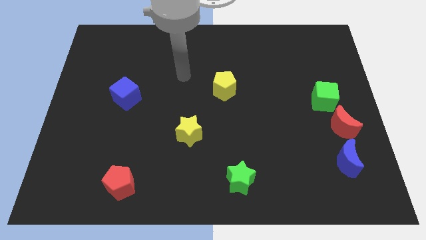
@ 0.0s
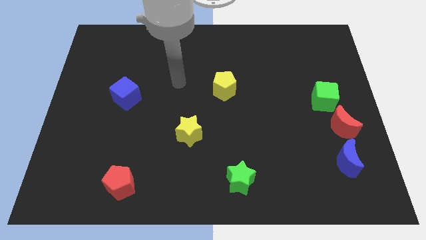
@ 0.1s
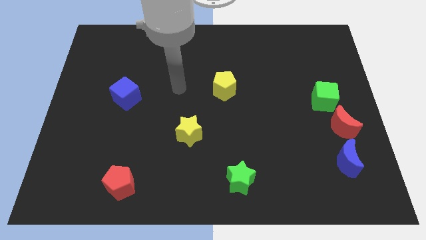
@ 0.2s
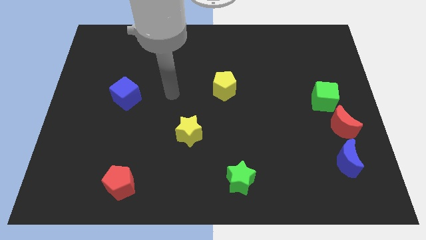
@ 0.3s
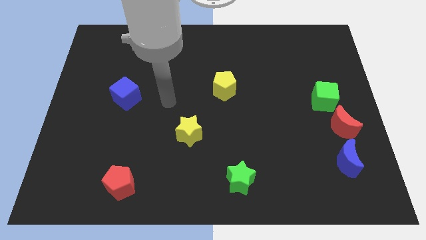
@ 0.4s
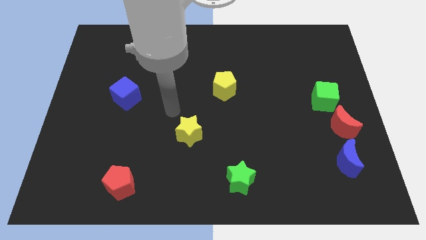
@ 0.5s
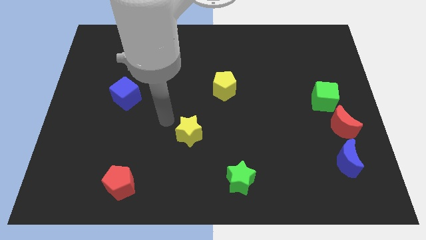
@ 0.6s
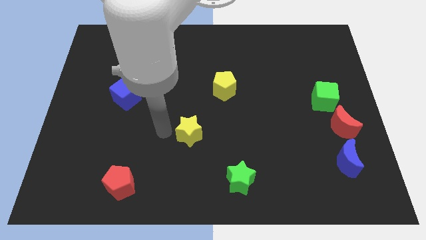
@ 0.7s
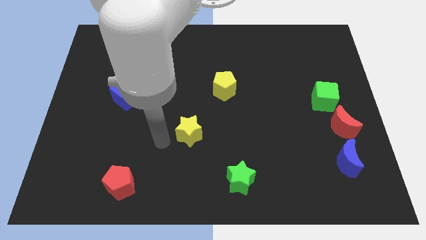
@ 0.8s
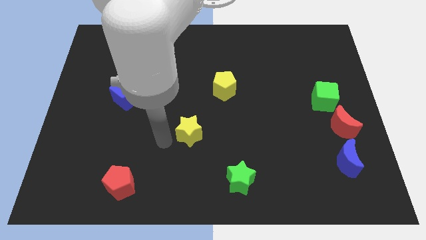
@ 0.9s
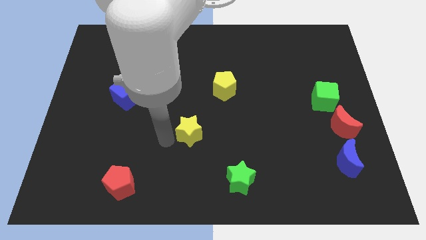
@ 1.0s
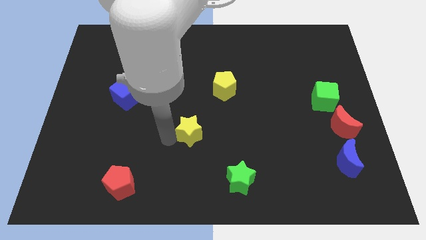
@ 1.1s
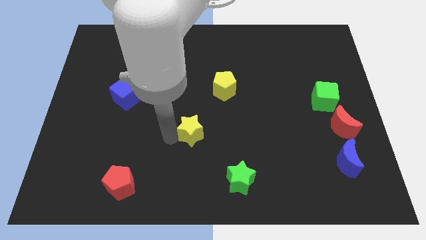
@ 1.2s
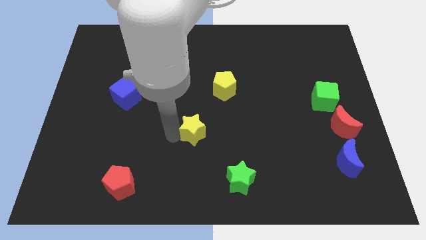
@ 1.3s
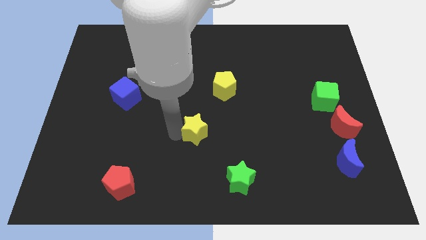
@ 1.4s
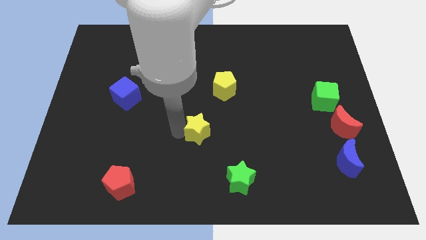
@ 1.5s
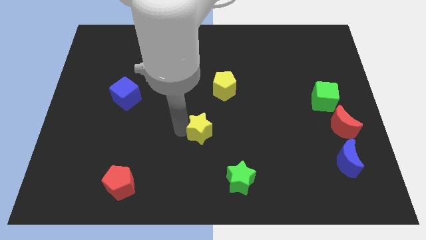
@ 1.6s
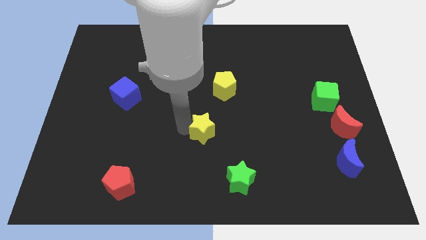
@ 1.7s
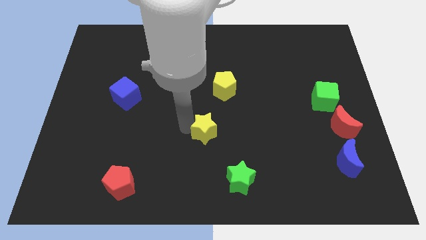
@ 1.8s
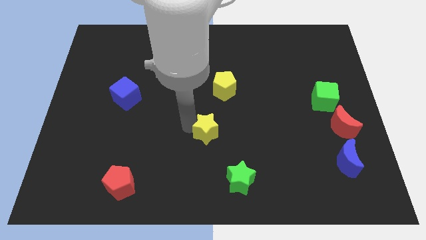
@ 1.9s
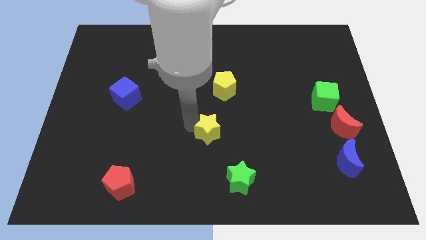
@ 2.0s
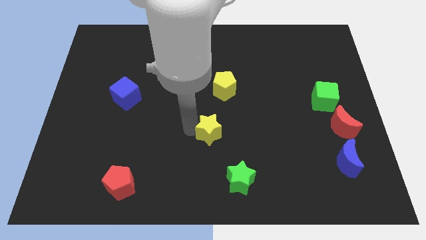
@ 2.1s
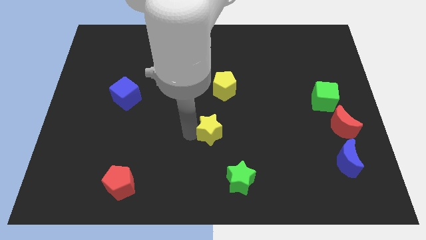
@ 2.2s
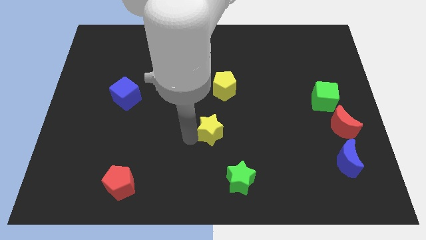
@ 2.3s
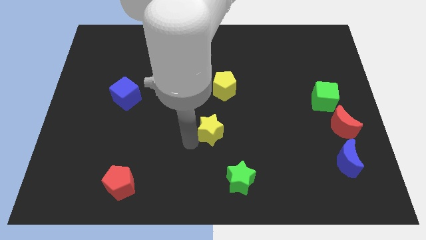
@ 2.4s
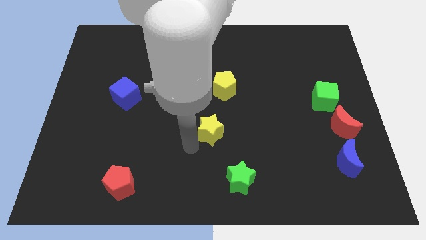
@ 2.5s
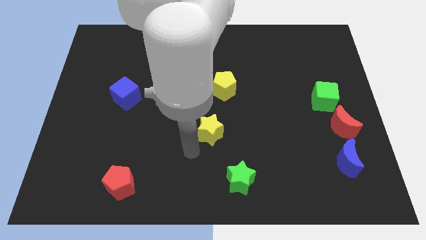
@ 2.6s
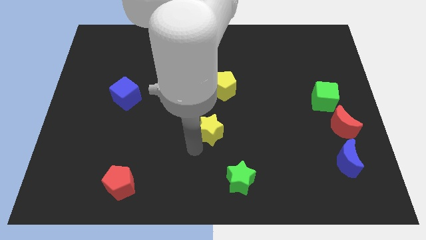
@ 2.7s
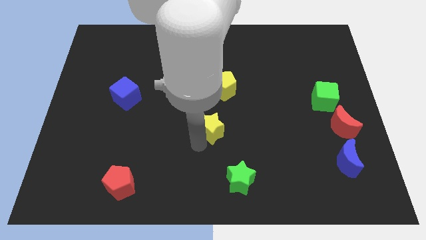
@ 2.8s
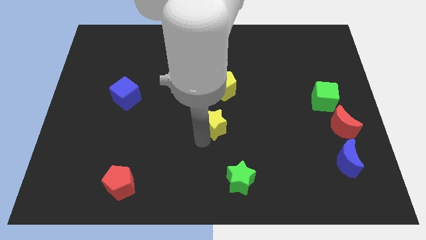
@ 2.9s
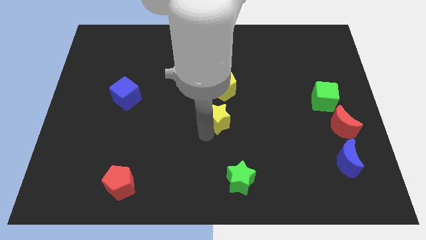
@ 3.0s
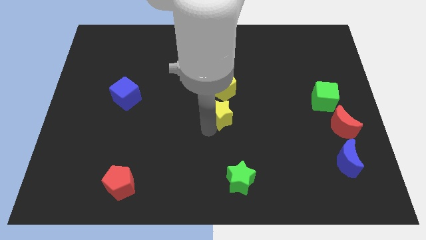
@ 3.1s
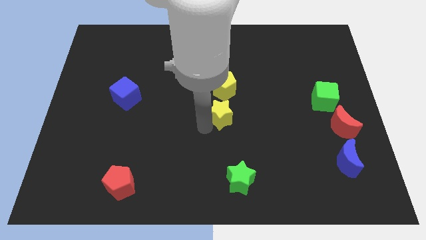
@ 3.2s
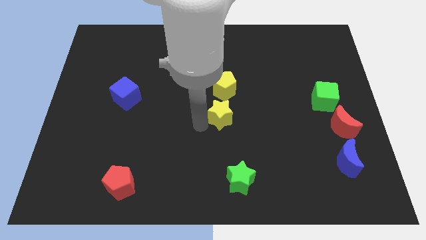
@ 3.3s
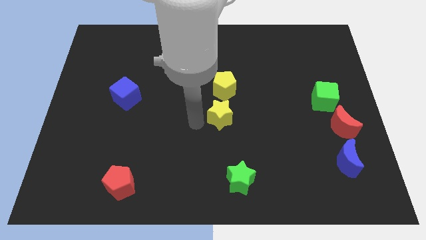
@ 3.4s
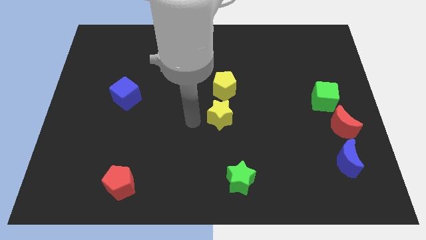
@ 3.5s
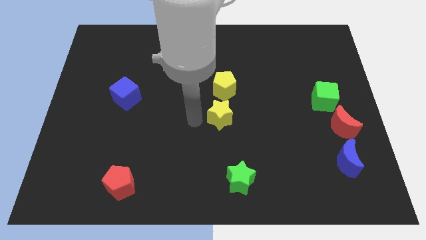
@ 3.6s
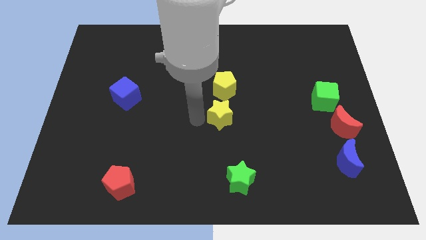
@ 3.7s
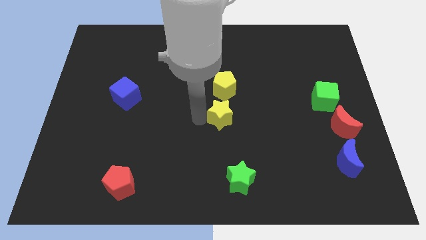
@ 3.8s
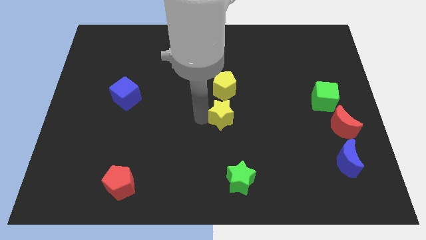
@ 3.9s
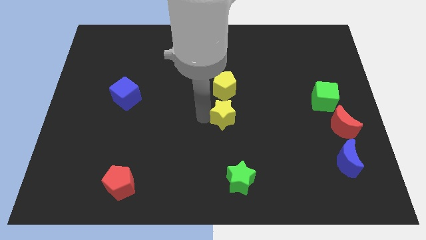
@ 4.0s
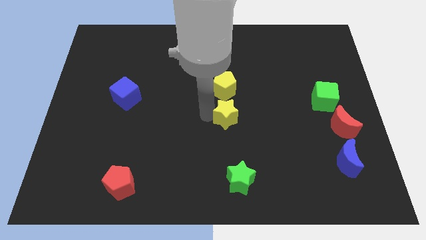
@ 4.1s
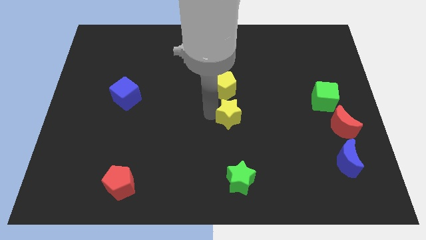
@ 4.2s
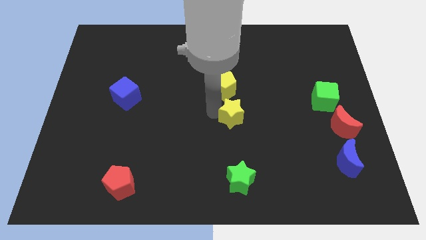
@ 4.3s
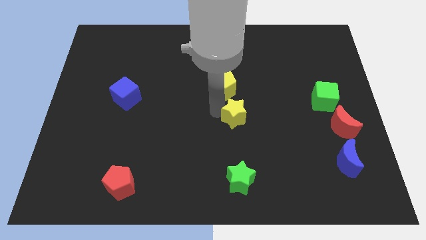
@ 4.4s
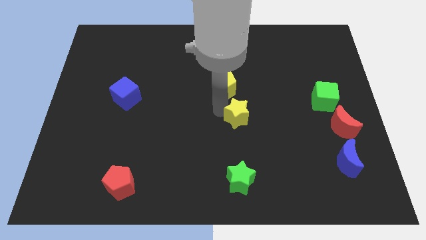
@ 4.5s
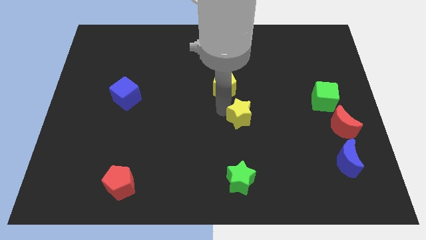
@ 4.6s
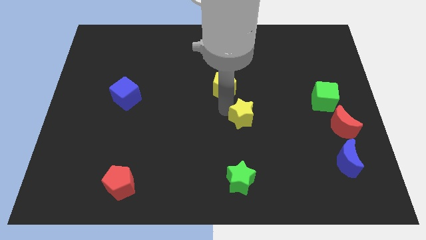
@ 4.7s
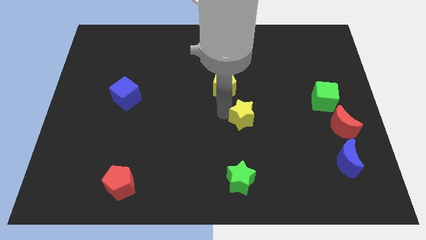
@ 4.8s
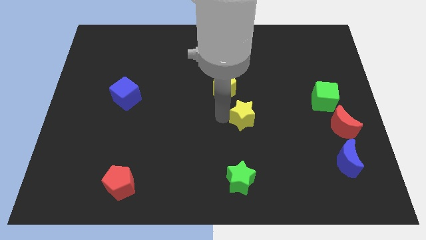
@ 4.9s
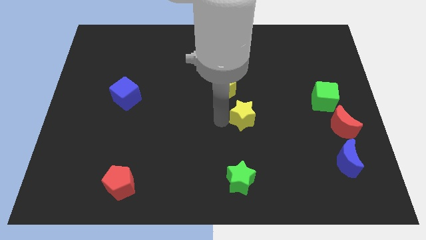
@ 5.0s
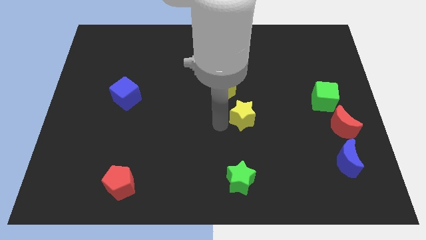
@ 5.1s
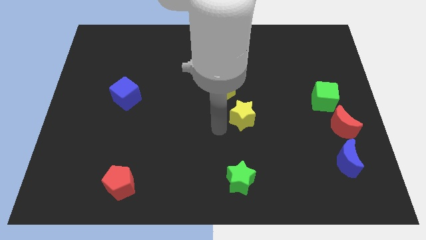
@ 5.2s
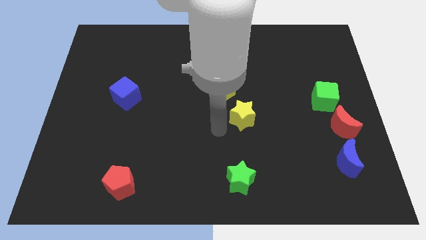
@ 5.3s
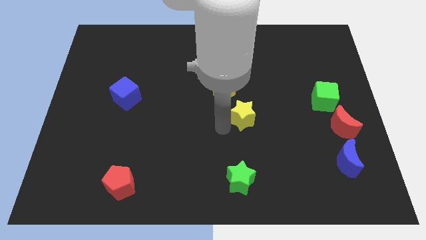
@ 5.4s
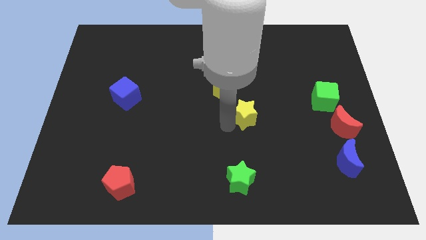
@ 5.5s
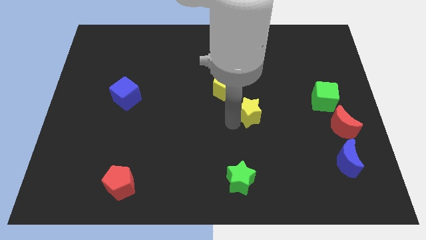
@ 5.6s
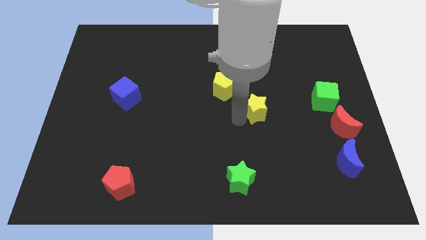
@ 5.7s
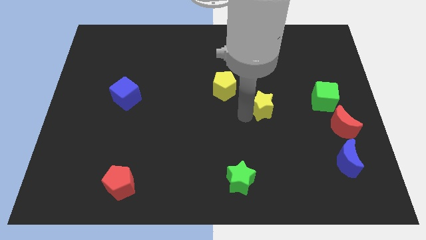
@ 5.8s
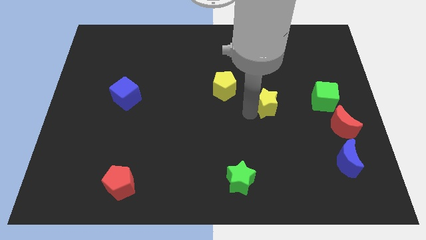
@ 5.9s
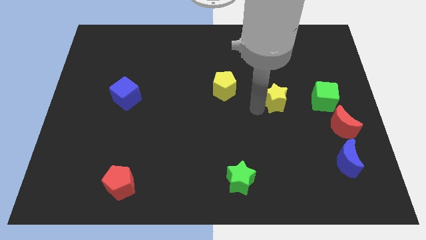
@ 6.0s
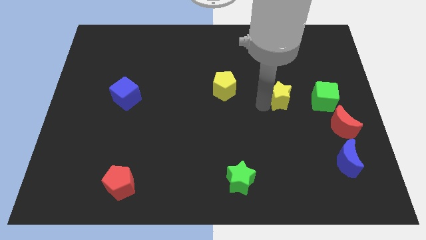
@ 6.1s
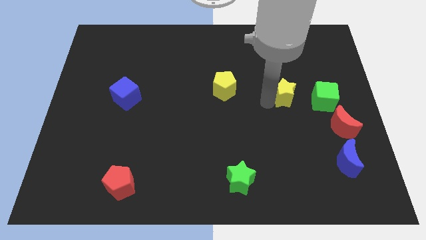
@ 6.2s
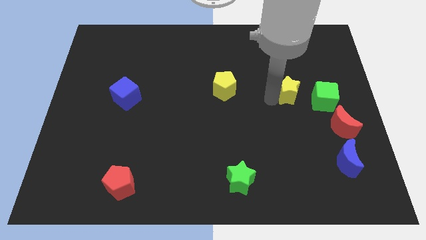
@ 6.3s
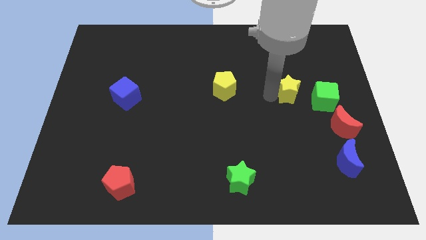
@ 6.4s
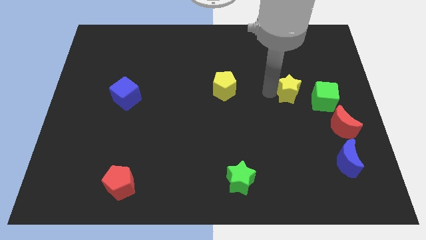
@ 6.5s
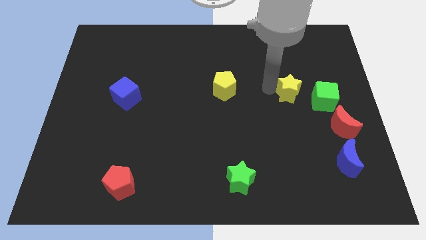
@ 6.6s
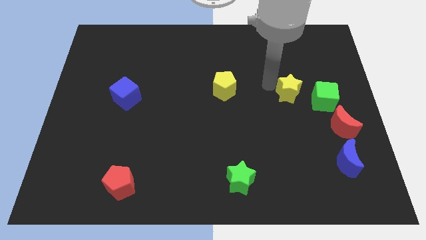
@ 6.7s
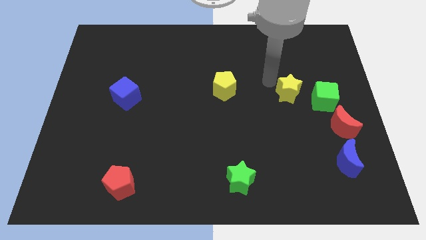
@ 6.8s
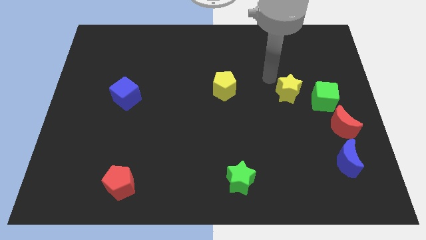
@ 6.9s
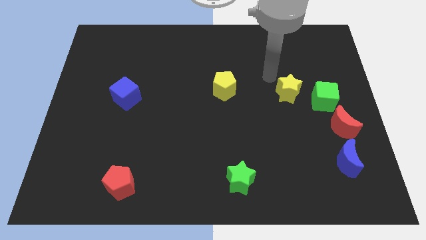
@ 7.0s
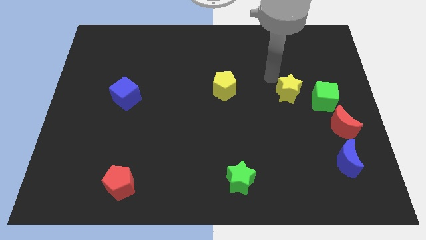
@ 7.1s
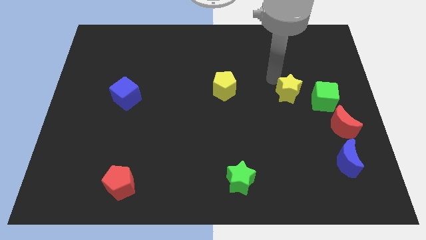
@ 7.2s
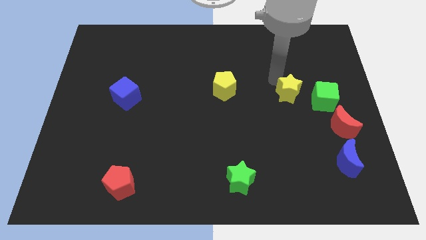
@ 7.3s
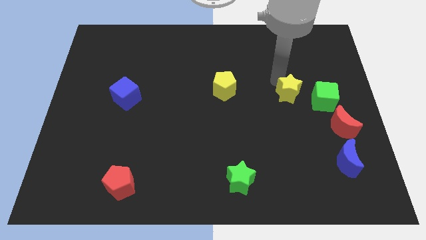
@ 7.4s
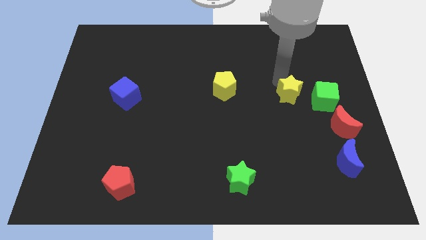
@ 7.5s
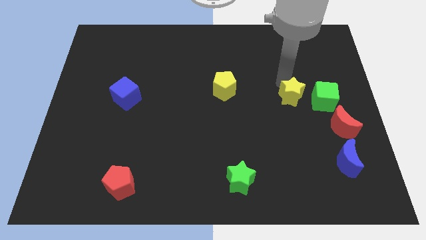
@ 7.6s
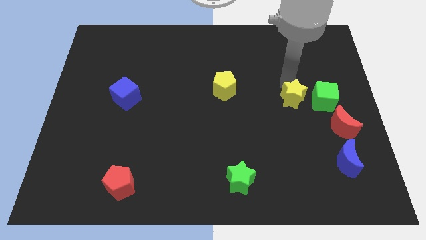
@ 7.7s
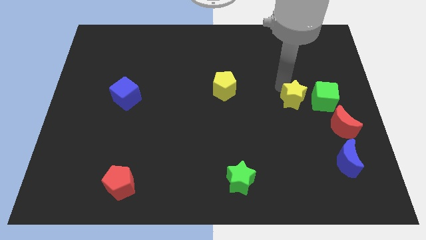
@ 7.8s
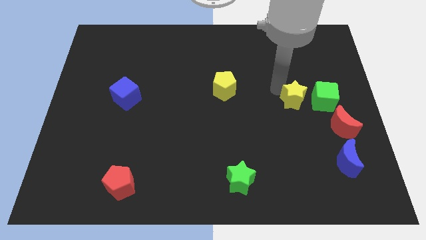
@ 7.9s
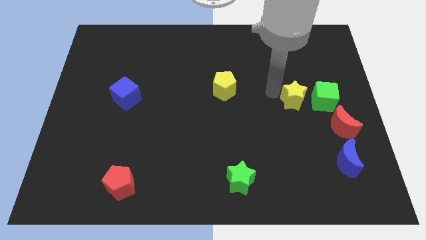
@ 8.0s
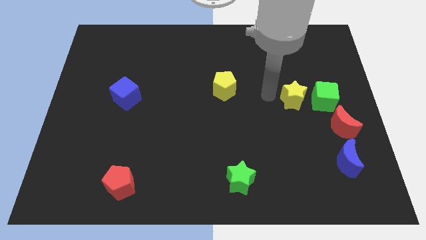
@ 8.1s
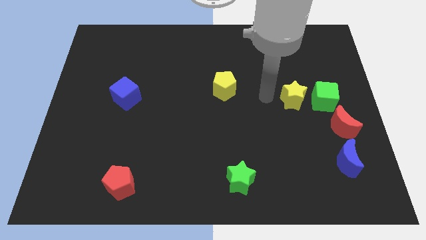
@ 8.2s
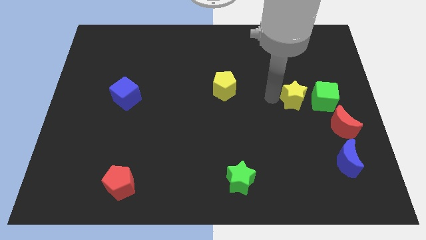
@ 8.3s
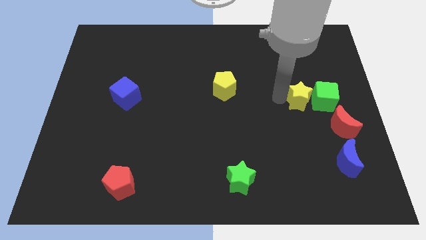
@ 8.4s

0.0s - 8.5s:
put the yellow star next to the green cube
